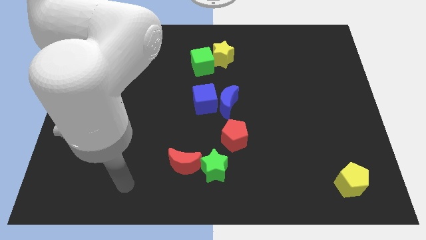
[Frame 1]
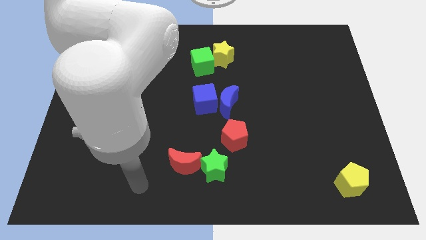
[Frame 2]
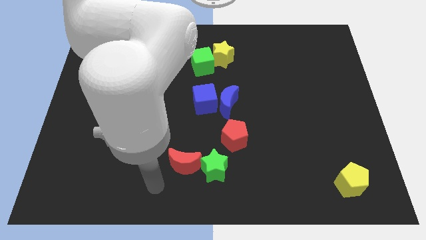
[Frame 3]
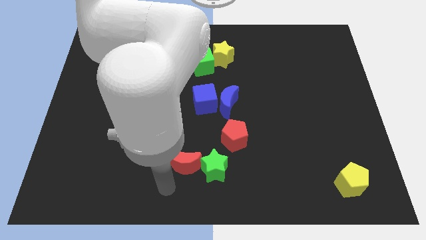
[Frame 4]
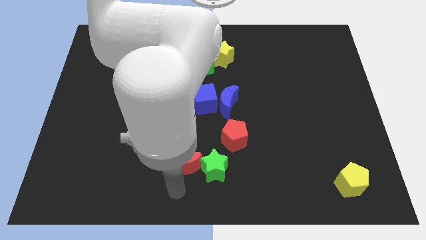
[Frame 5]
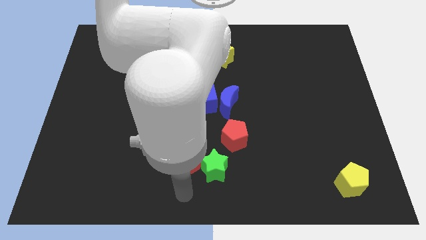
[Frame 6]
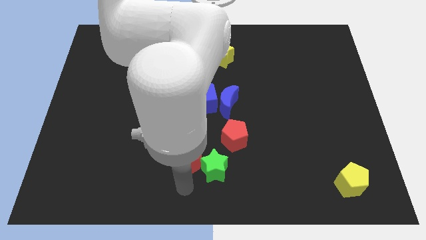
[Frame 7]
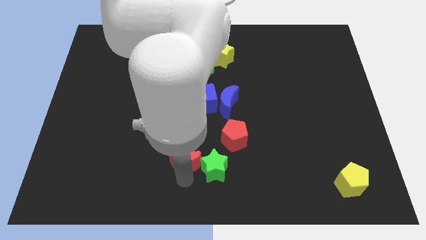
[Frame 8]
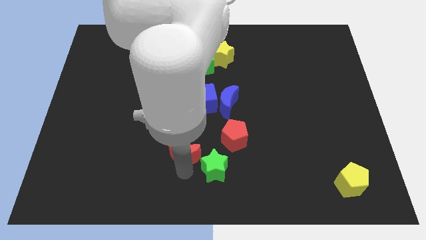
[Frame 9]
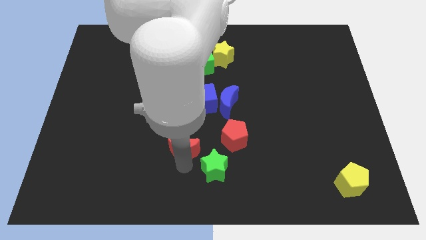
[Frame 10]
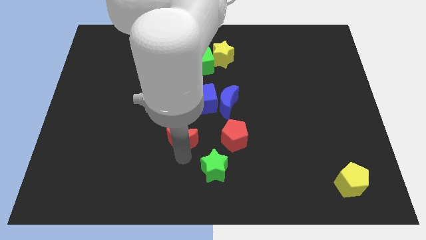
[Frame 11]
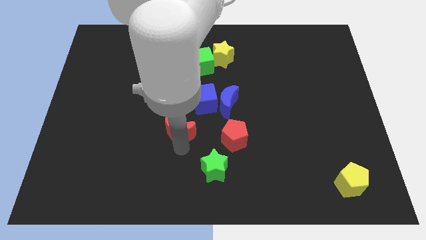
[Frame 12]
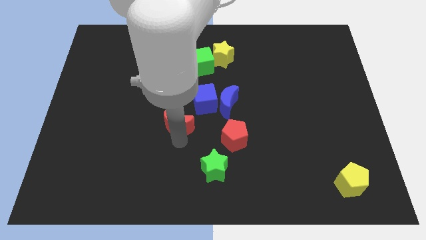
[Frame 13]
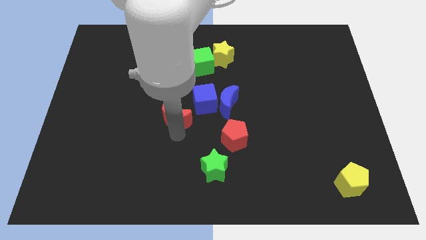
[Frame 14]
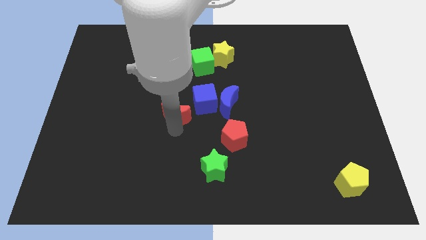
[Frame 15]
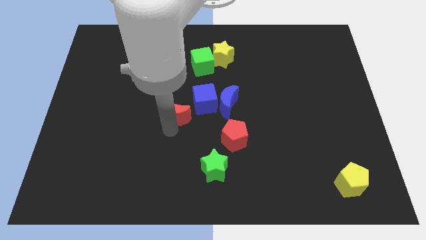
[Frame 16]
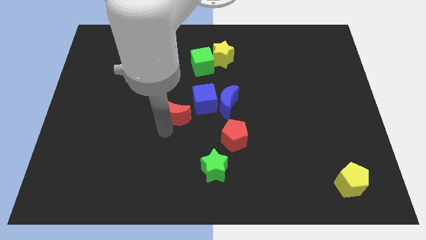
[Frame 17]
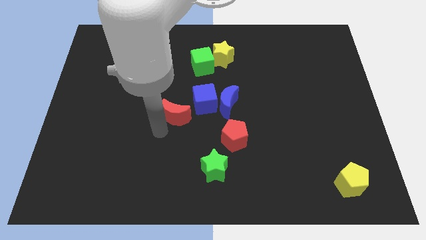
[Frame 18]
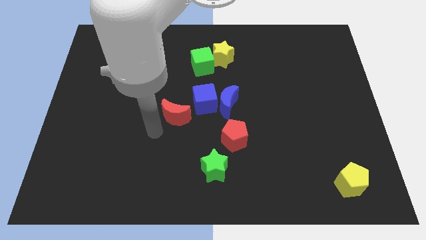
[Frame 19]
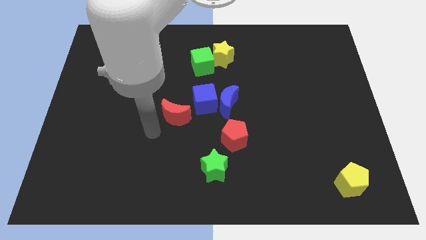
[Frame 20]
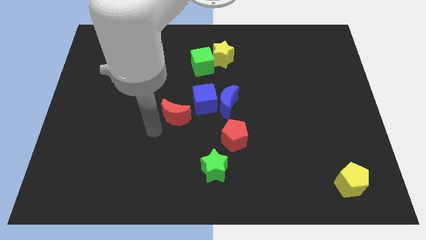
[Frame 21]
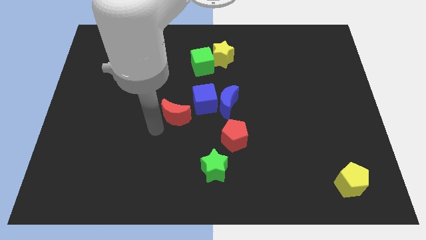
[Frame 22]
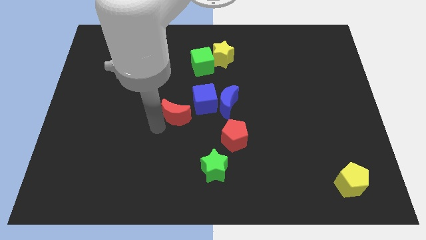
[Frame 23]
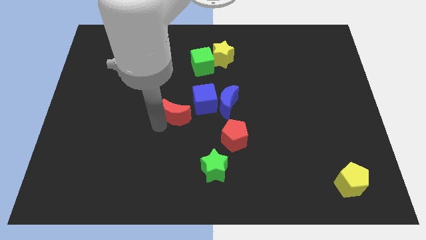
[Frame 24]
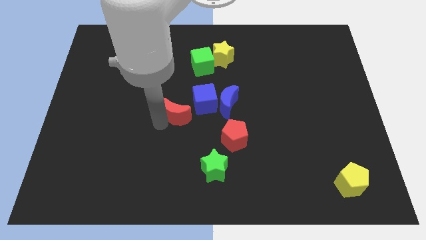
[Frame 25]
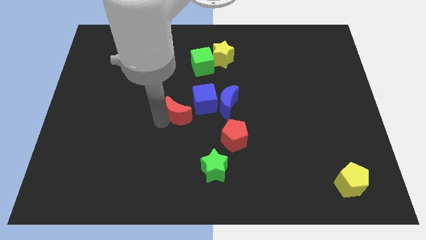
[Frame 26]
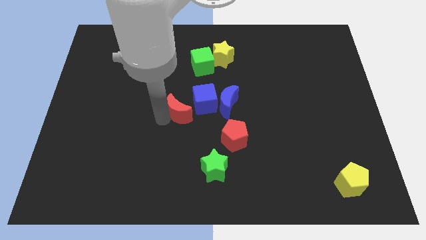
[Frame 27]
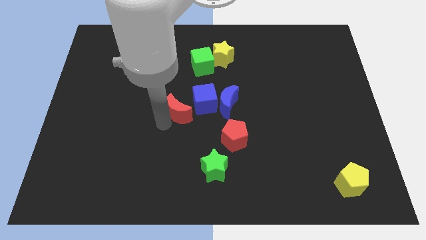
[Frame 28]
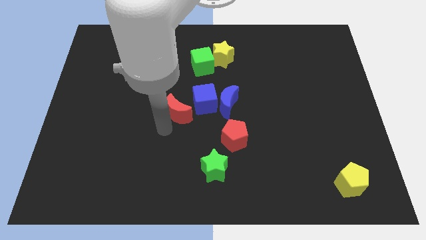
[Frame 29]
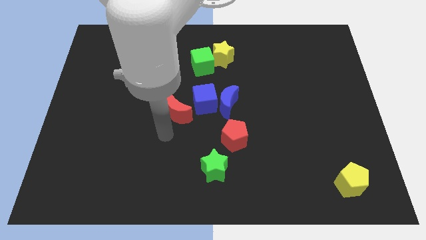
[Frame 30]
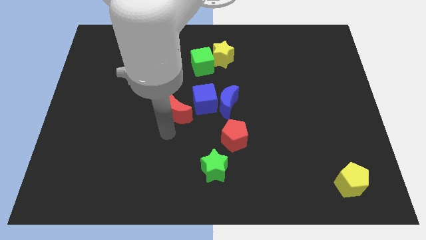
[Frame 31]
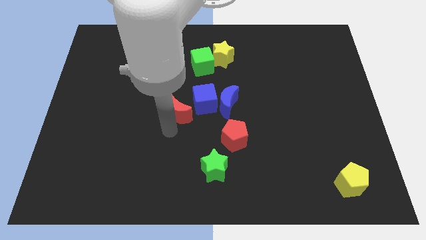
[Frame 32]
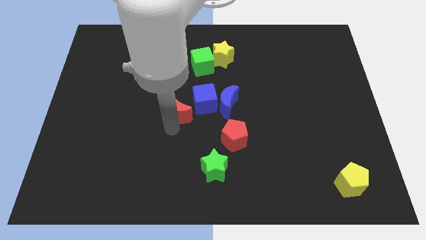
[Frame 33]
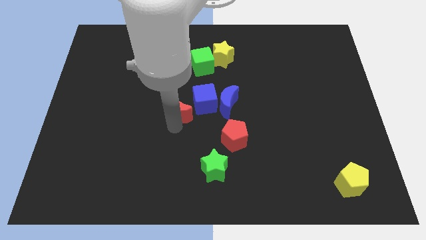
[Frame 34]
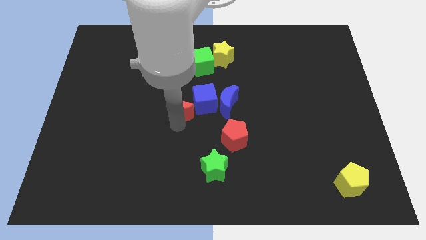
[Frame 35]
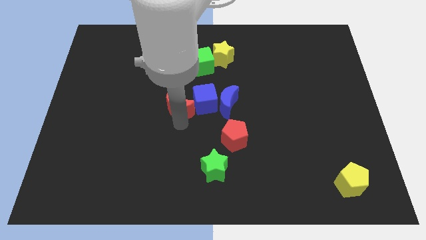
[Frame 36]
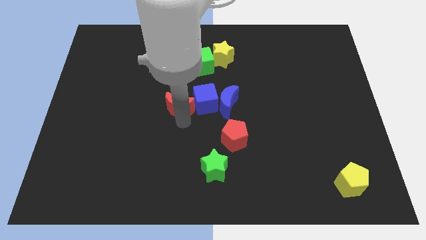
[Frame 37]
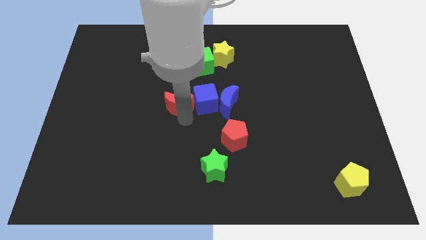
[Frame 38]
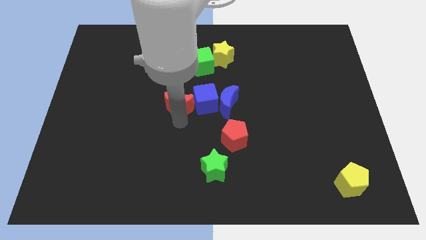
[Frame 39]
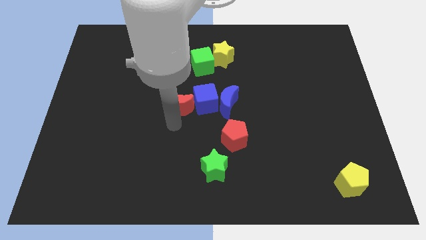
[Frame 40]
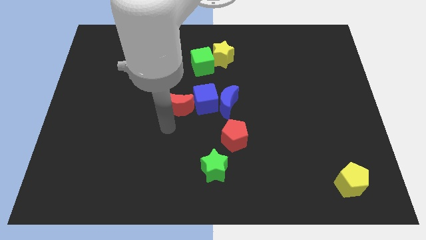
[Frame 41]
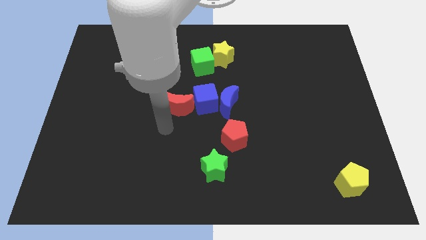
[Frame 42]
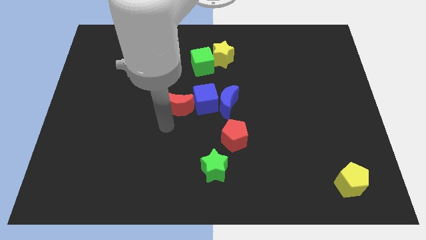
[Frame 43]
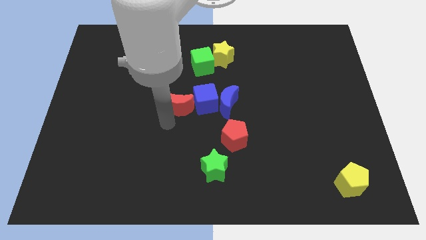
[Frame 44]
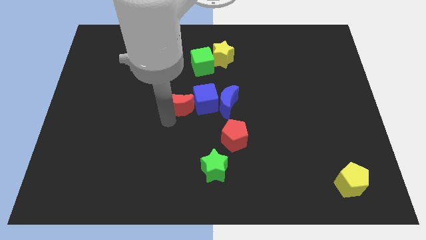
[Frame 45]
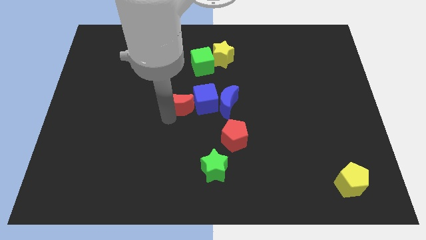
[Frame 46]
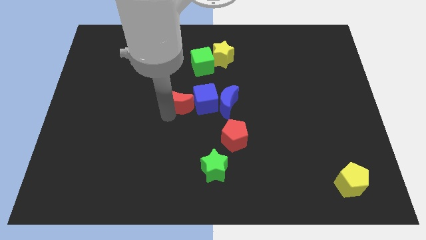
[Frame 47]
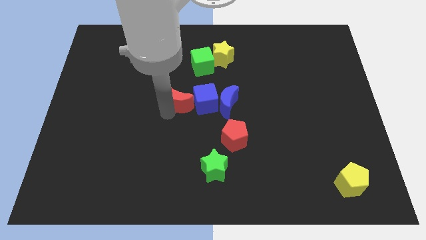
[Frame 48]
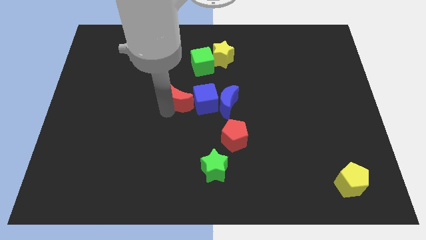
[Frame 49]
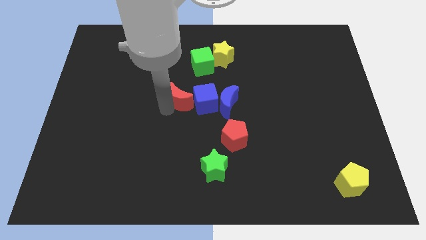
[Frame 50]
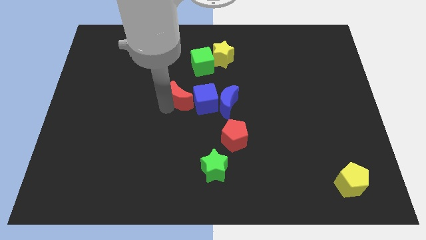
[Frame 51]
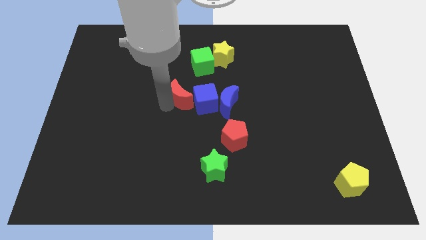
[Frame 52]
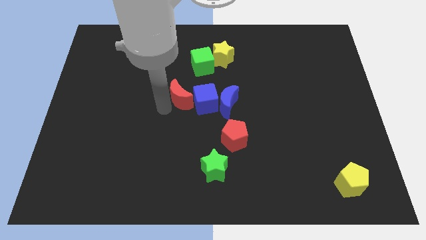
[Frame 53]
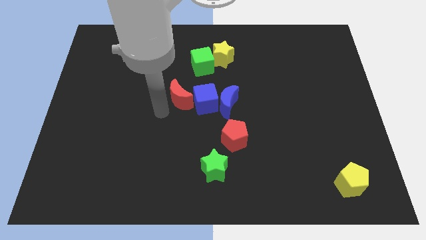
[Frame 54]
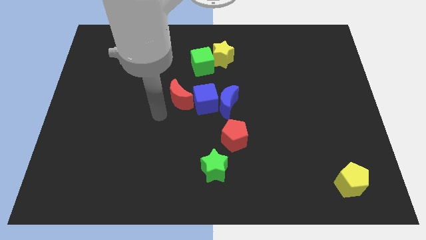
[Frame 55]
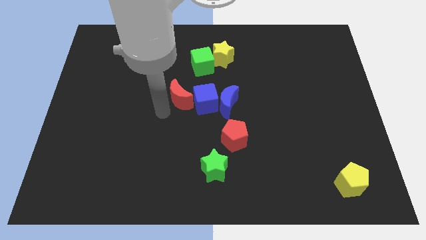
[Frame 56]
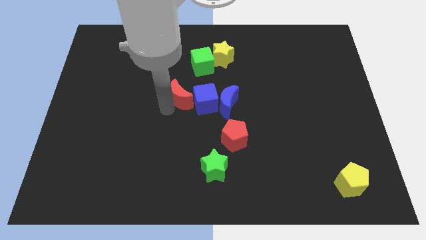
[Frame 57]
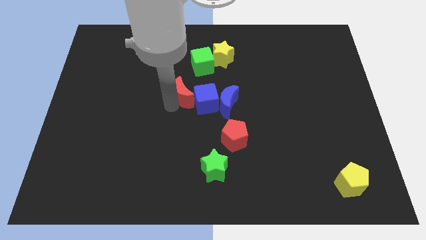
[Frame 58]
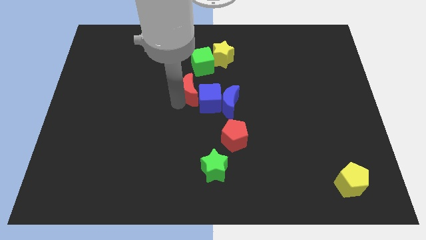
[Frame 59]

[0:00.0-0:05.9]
move the red moon up

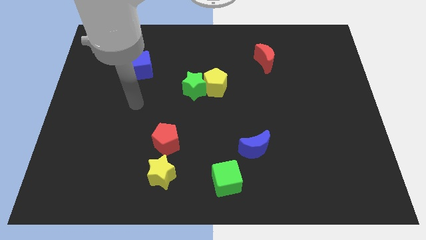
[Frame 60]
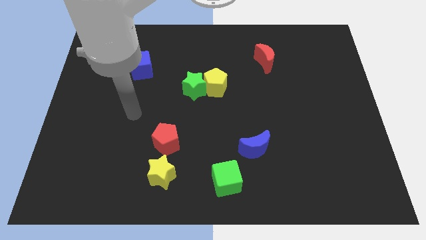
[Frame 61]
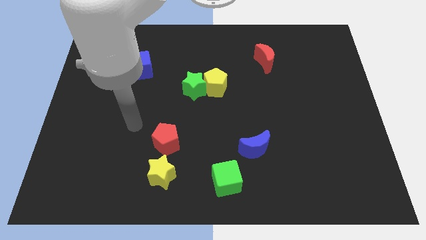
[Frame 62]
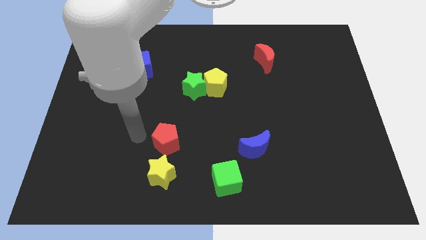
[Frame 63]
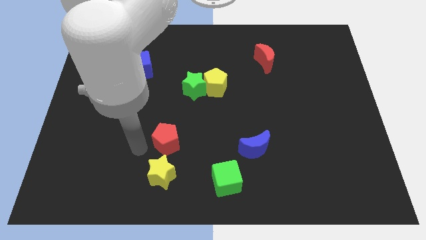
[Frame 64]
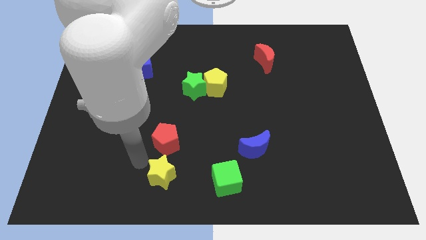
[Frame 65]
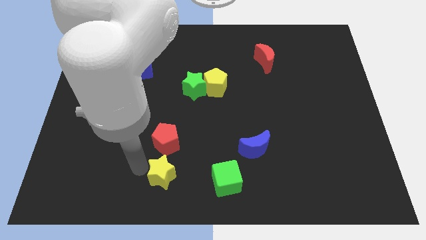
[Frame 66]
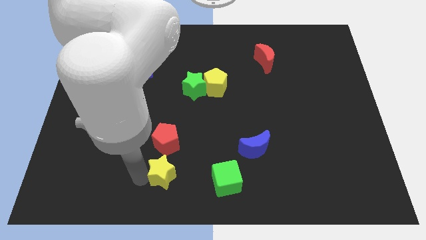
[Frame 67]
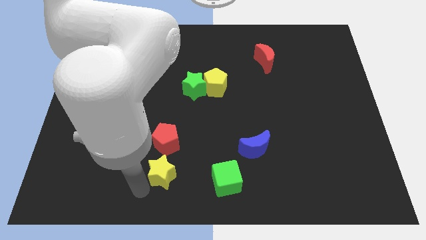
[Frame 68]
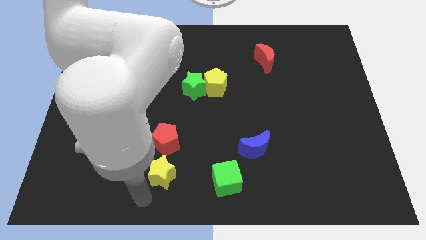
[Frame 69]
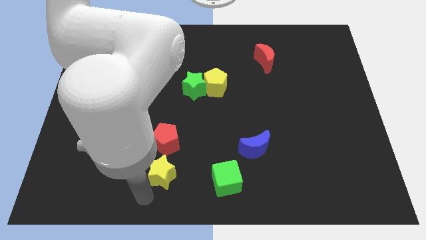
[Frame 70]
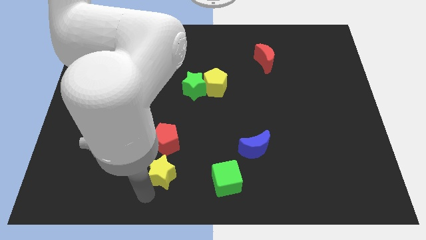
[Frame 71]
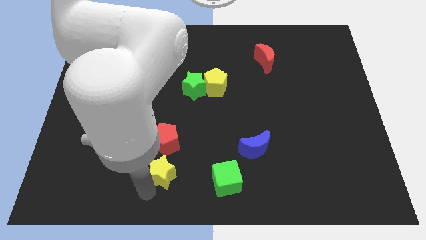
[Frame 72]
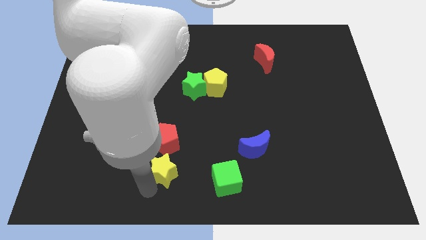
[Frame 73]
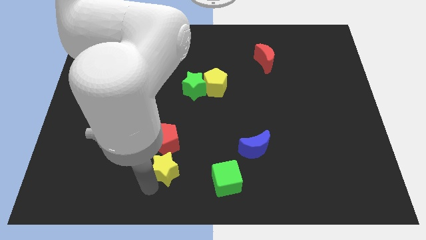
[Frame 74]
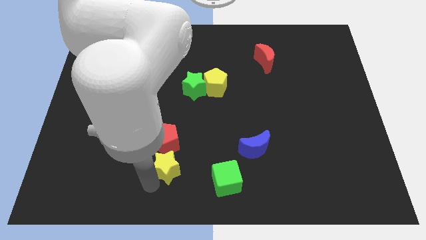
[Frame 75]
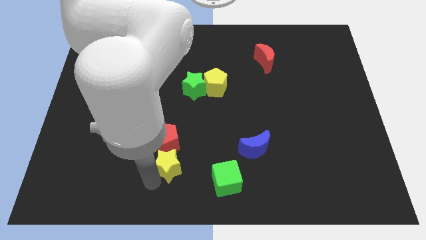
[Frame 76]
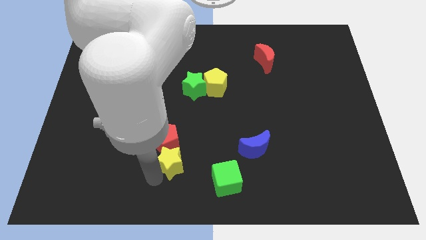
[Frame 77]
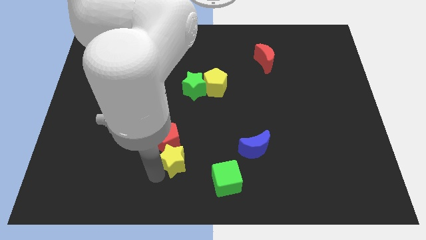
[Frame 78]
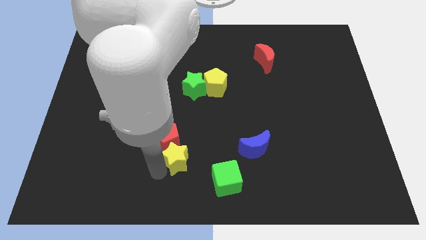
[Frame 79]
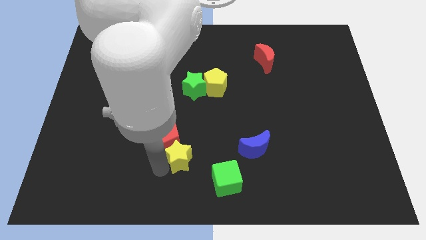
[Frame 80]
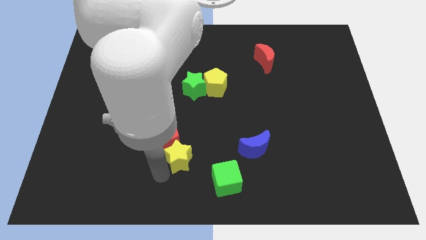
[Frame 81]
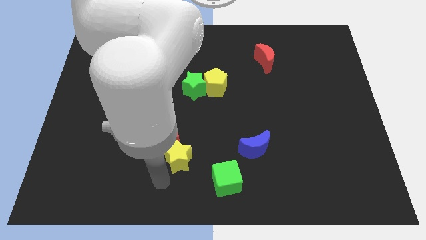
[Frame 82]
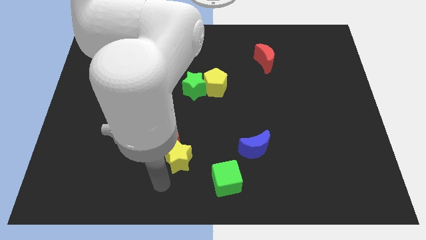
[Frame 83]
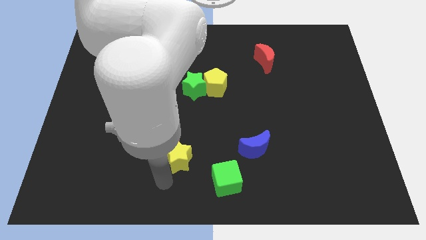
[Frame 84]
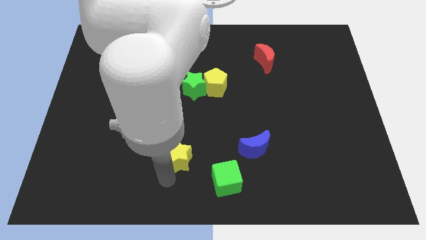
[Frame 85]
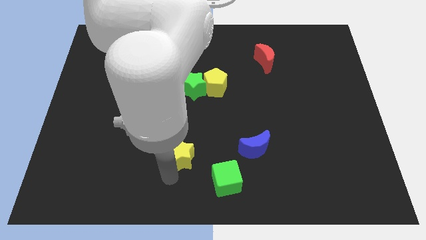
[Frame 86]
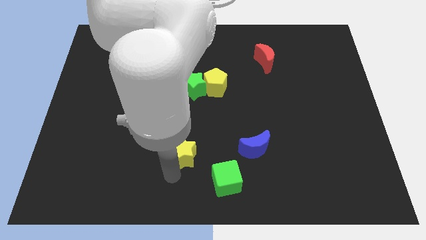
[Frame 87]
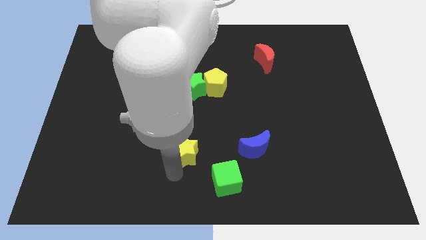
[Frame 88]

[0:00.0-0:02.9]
slightly slide the yellow star diagonally upwards and right
